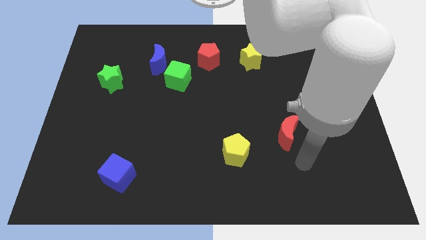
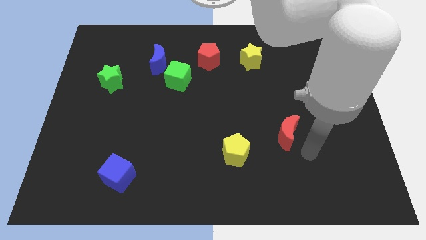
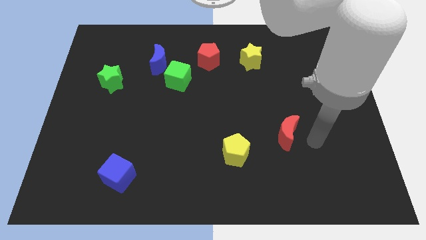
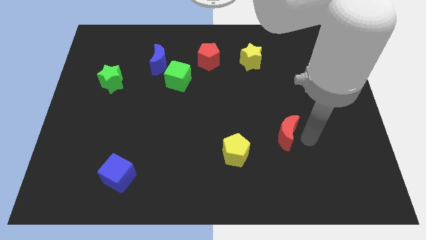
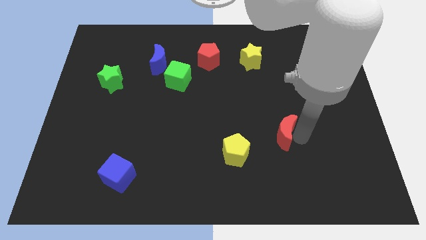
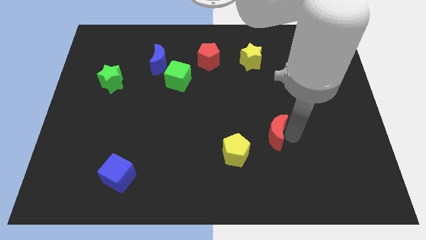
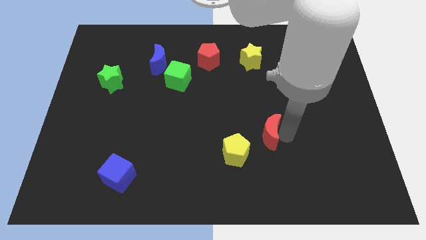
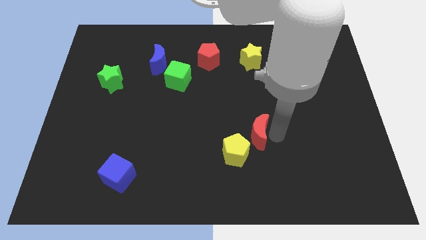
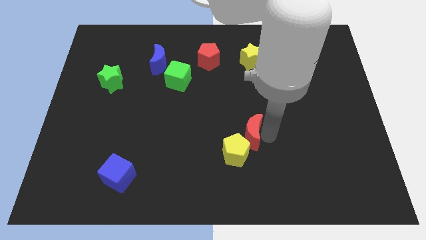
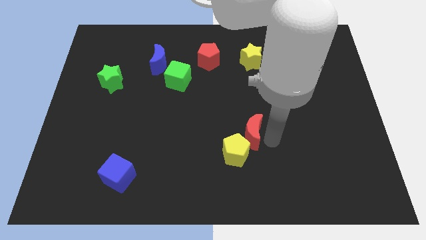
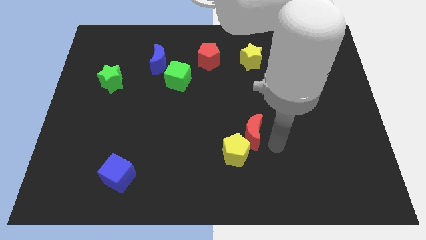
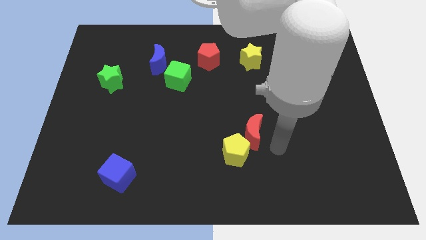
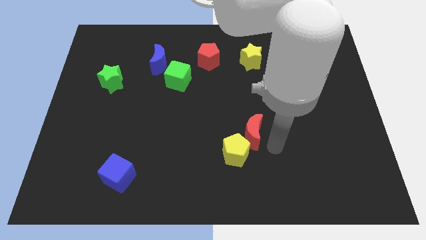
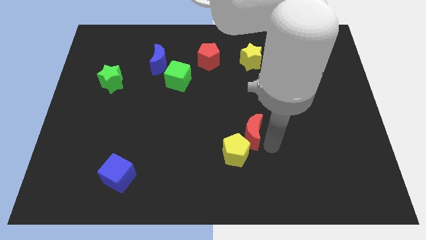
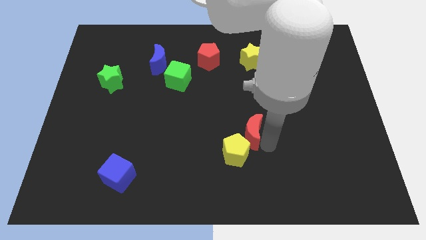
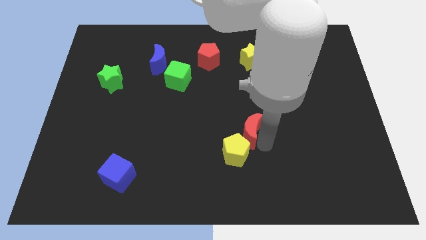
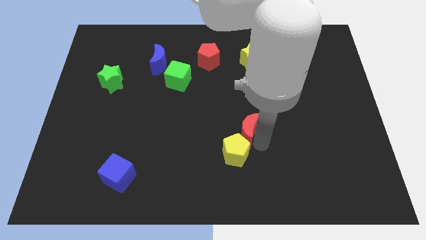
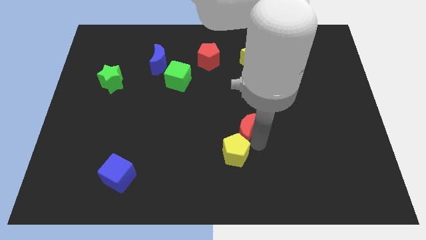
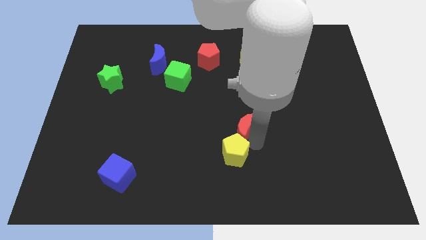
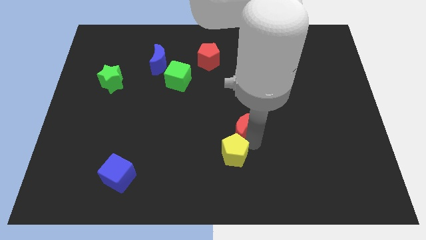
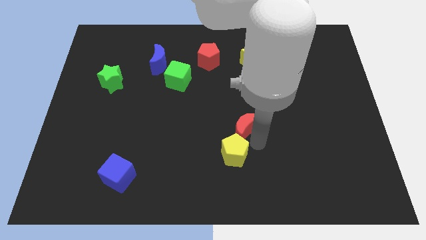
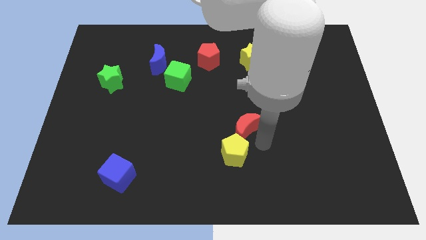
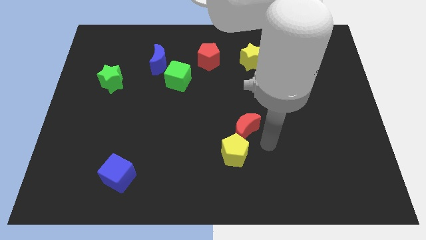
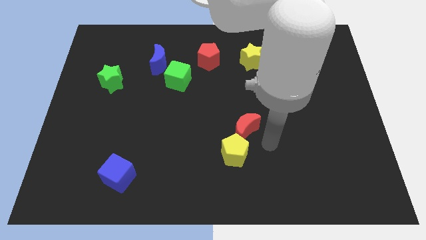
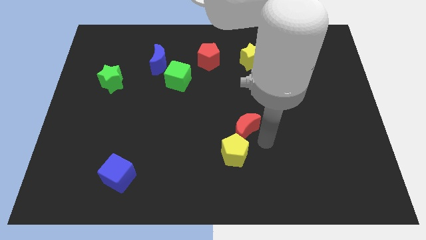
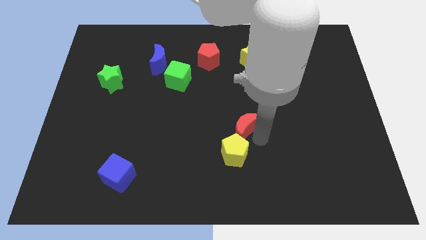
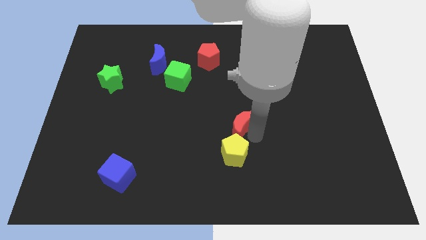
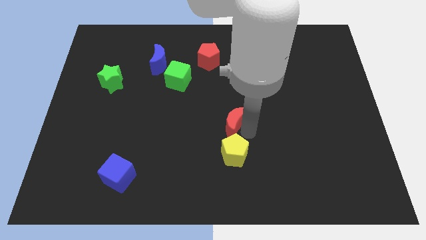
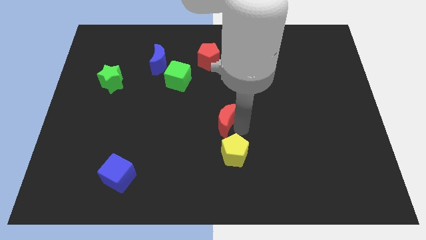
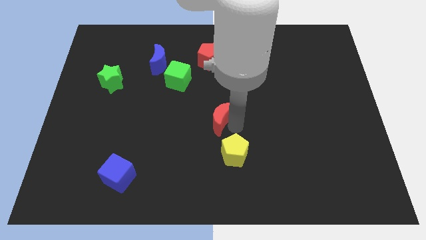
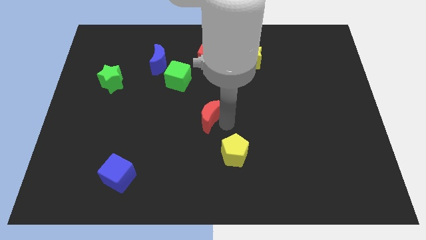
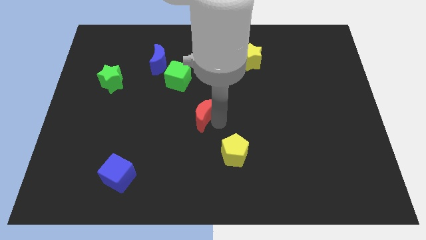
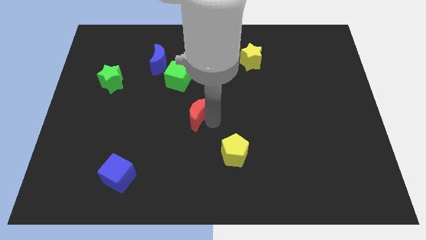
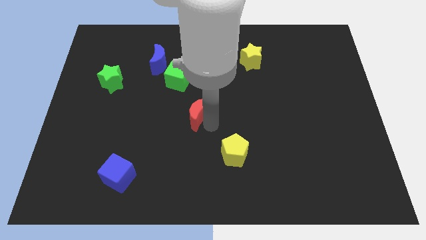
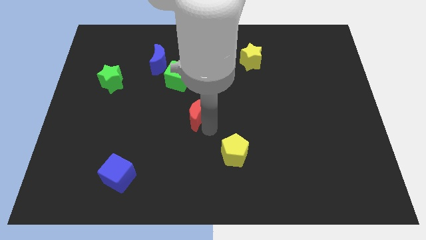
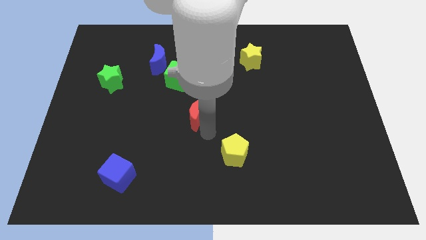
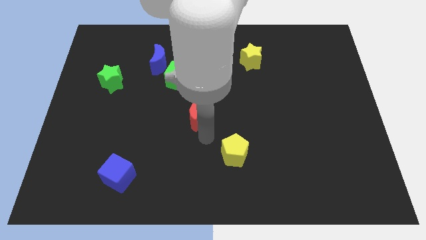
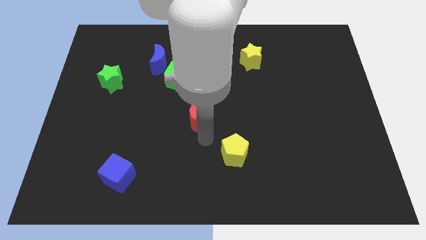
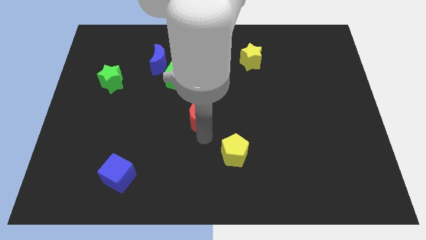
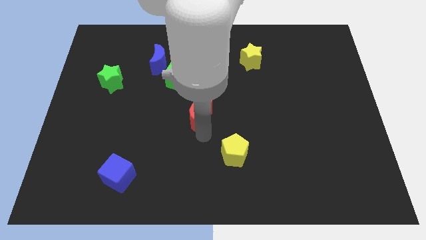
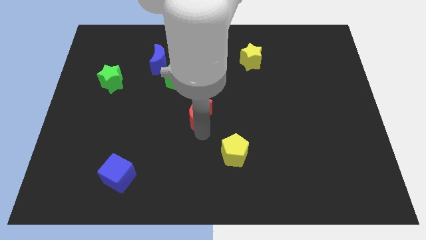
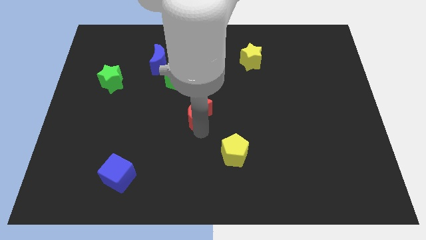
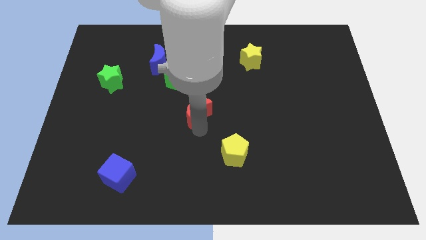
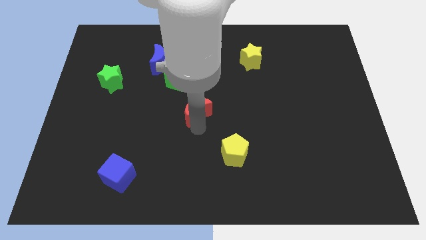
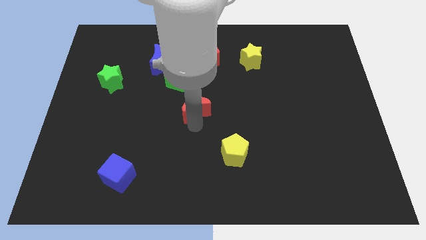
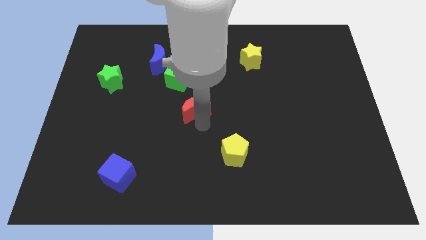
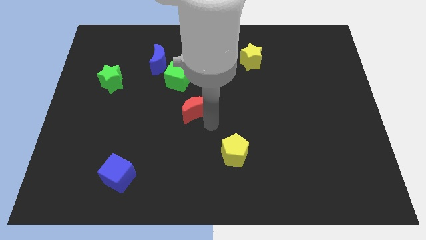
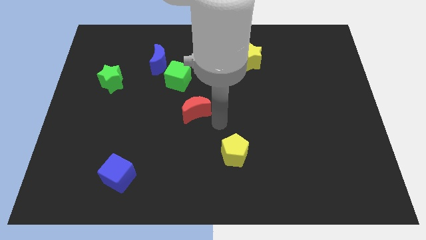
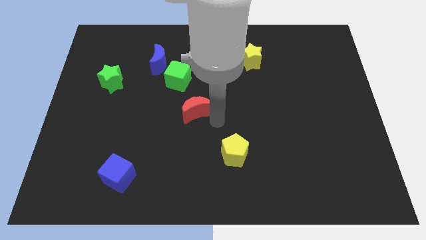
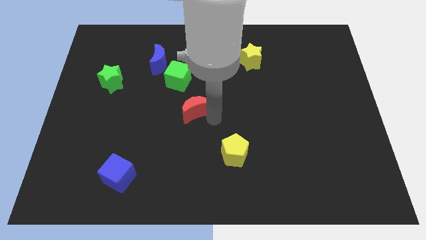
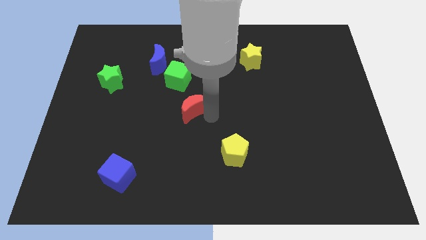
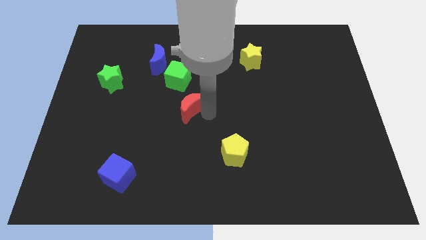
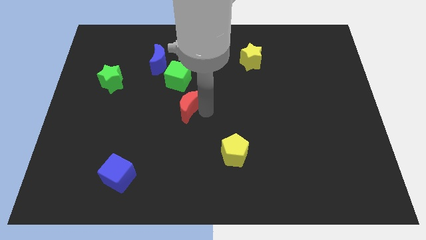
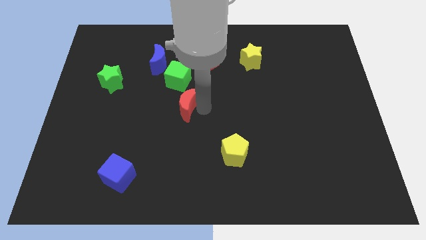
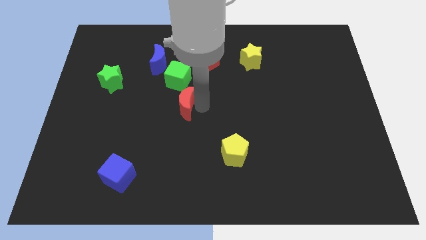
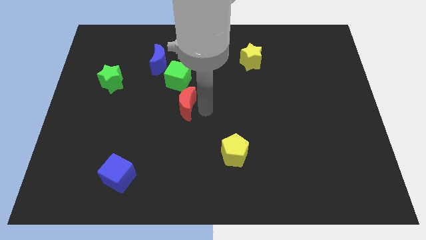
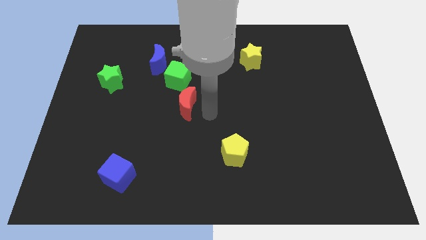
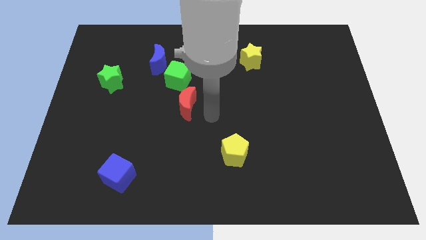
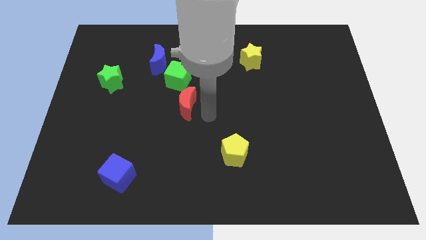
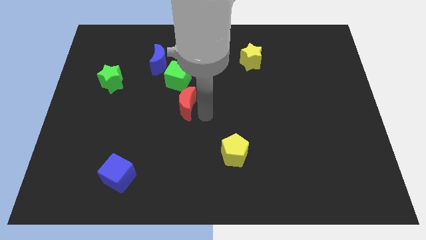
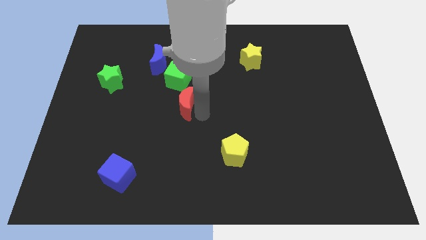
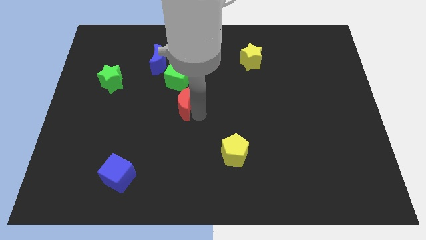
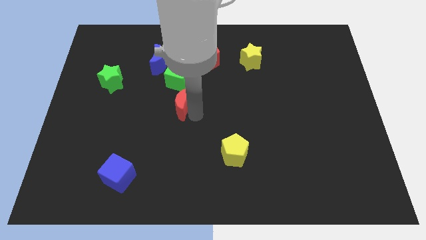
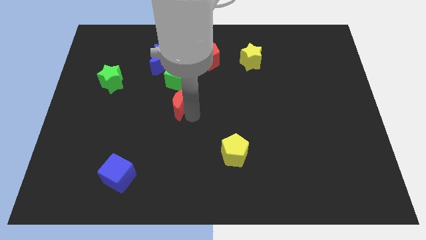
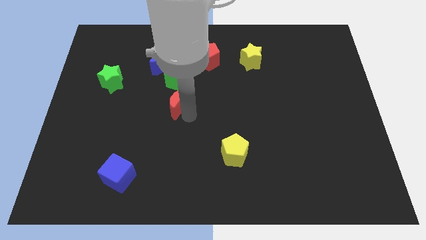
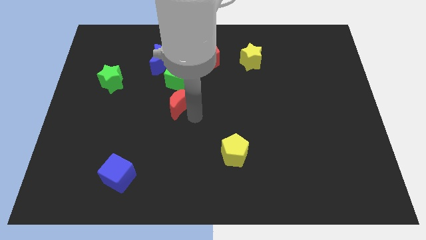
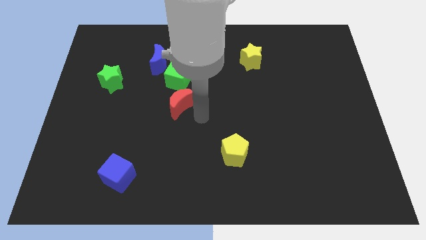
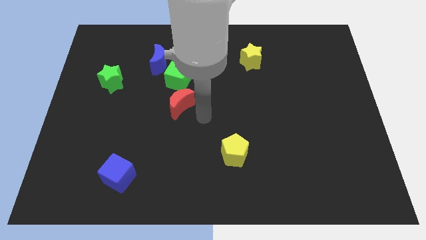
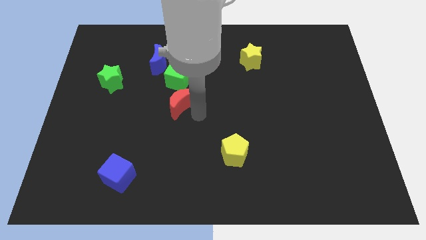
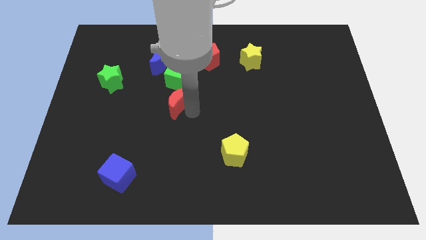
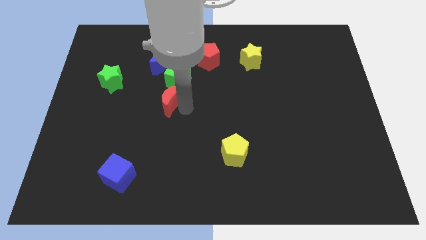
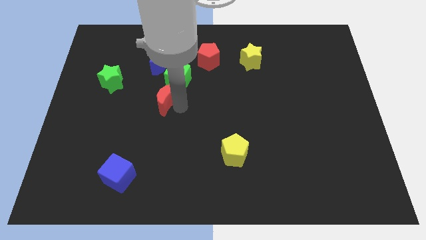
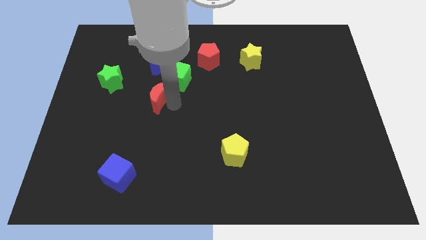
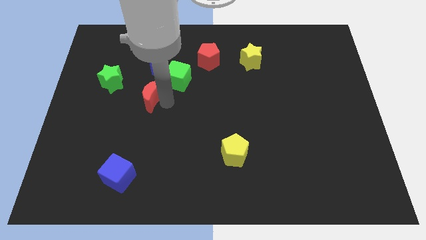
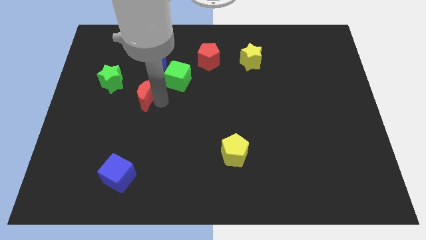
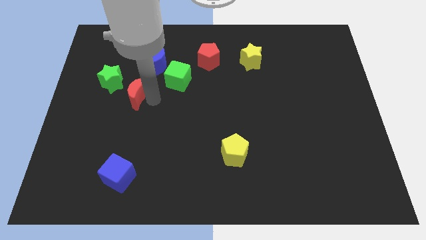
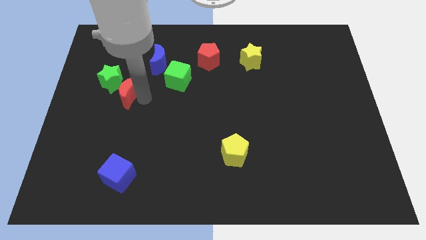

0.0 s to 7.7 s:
push the red moon close to the green star
